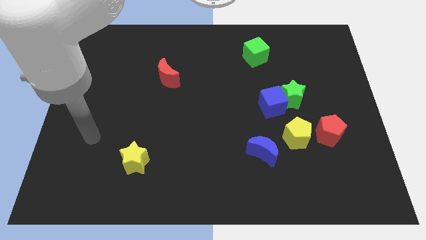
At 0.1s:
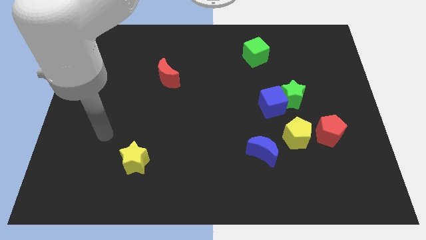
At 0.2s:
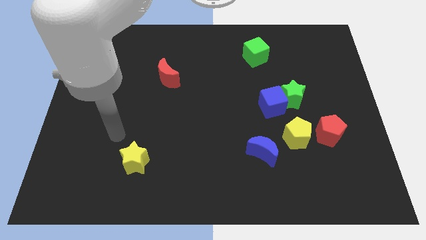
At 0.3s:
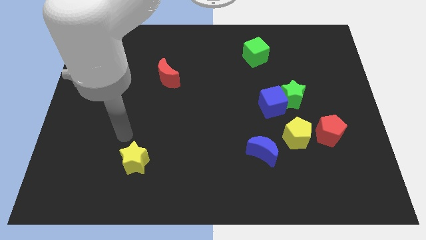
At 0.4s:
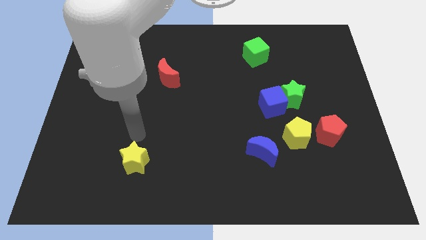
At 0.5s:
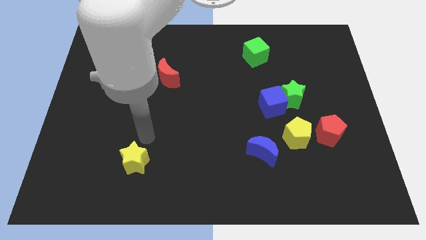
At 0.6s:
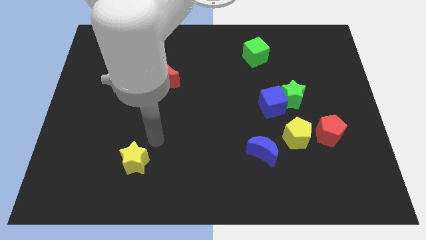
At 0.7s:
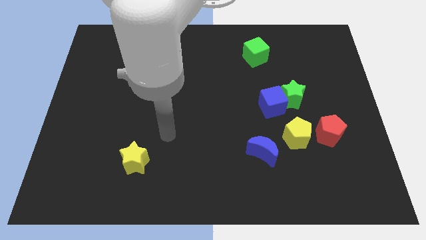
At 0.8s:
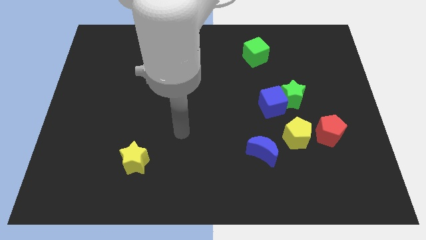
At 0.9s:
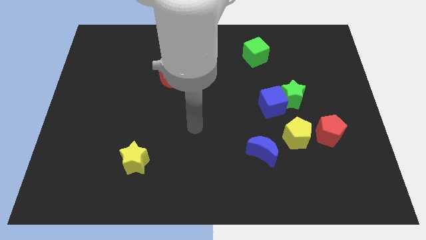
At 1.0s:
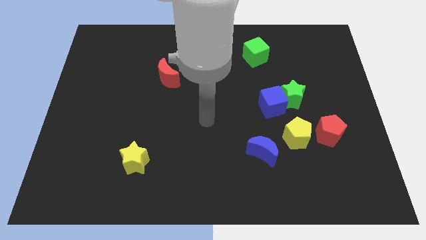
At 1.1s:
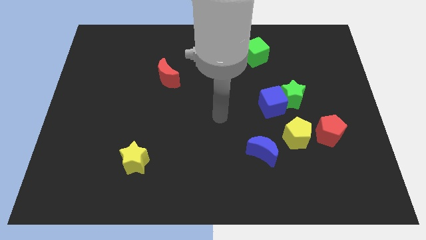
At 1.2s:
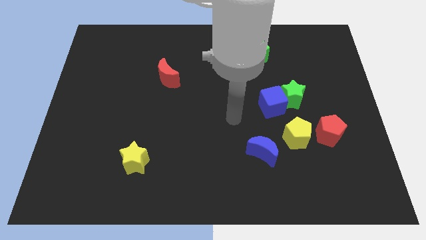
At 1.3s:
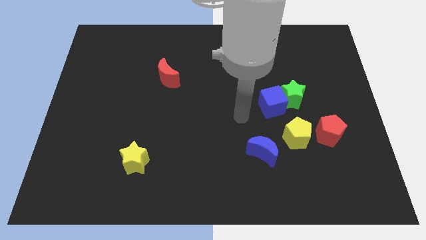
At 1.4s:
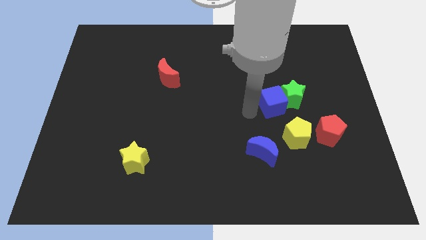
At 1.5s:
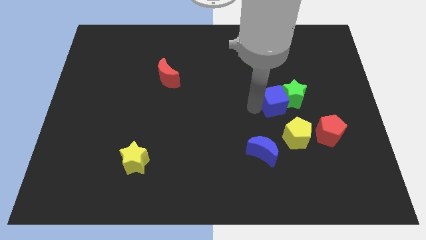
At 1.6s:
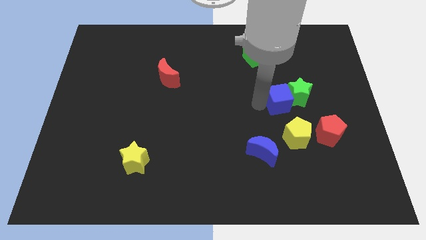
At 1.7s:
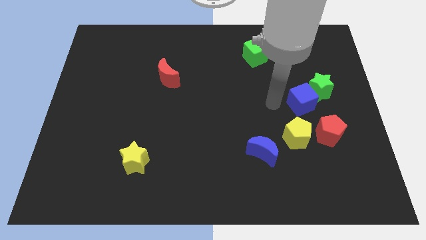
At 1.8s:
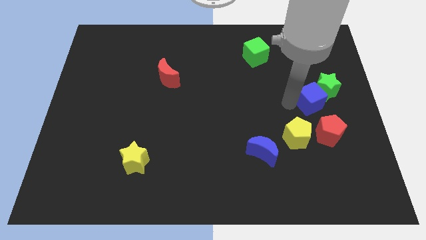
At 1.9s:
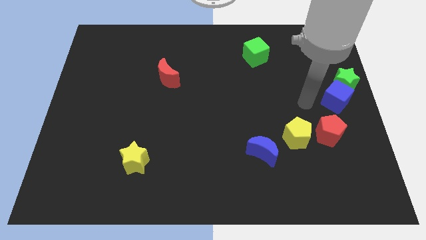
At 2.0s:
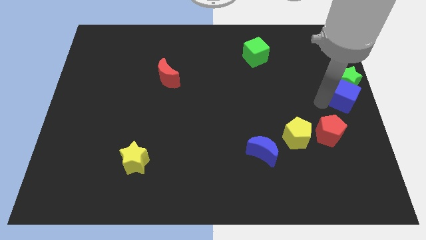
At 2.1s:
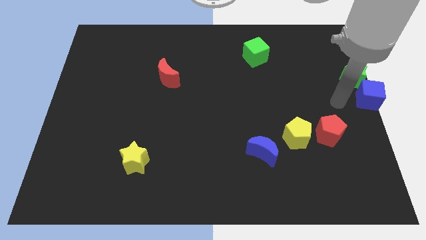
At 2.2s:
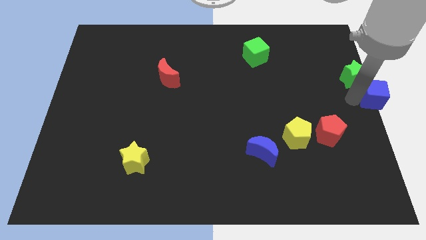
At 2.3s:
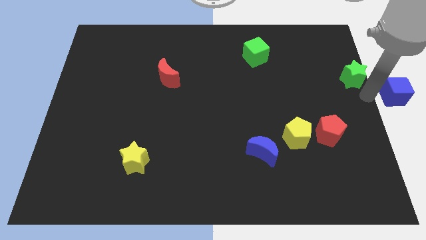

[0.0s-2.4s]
separate the green star from the blue cube

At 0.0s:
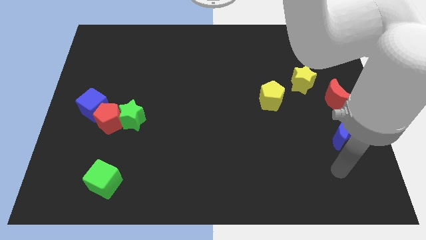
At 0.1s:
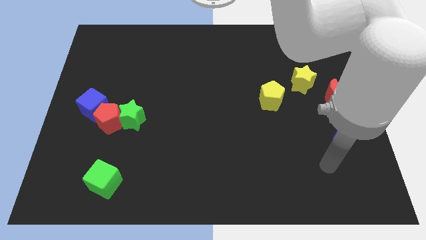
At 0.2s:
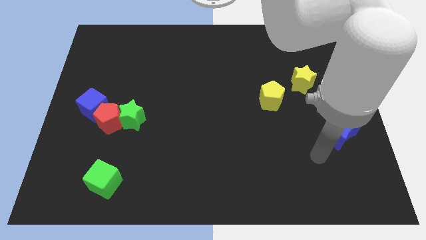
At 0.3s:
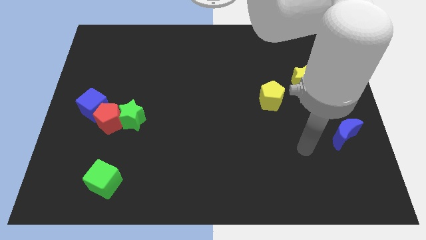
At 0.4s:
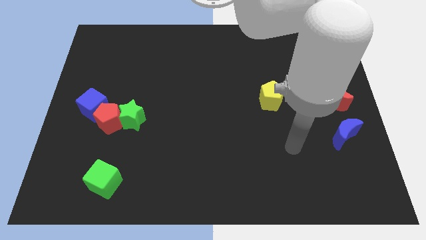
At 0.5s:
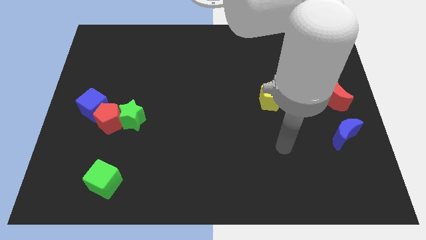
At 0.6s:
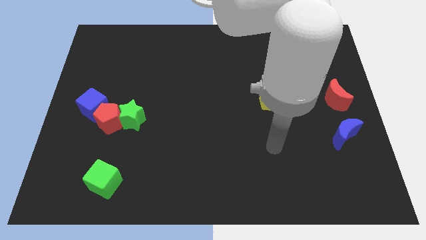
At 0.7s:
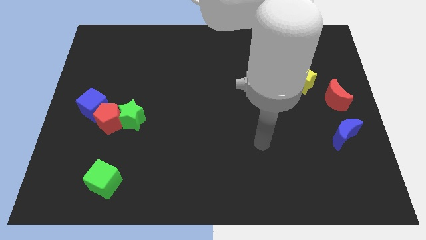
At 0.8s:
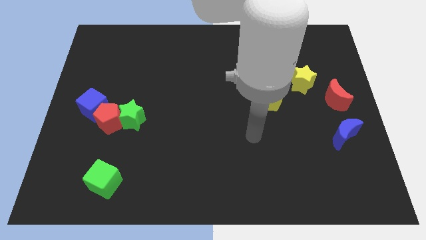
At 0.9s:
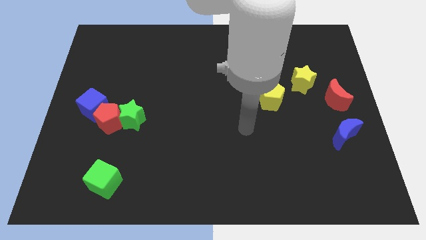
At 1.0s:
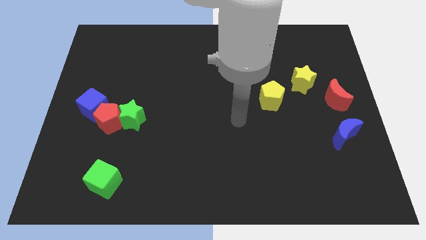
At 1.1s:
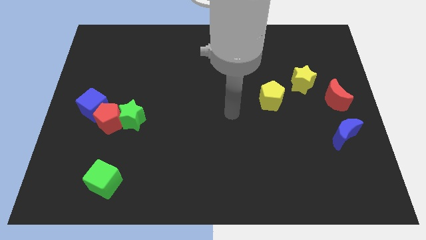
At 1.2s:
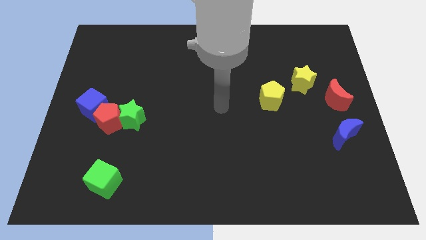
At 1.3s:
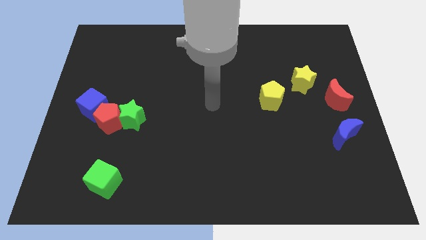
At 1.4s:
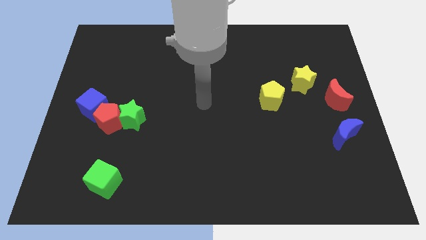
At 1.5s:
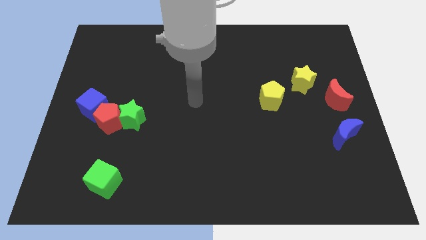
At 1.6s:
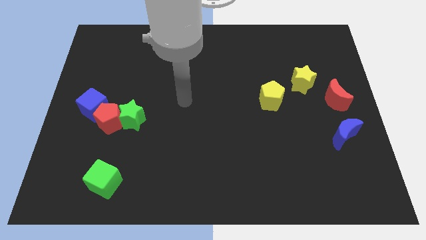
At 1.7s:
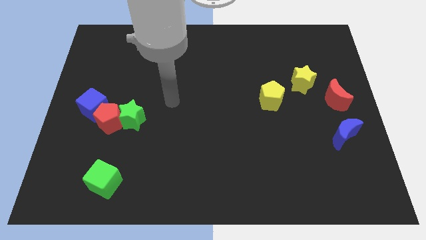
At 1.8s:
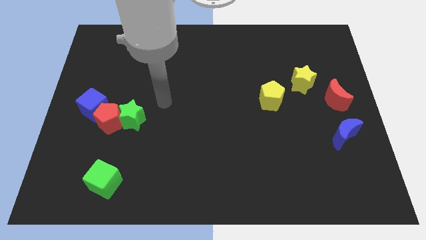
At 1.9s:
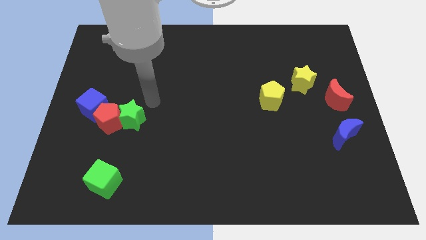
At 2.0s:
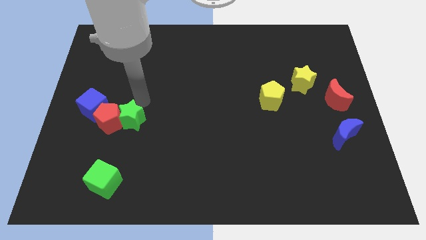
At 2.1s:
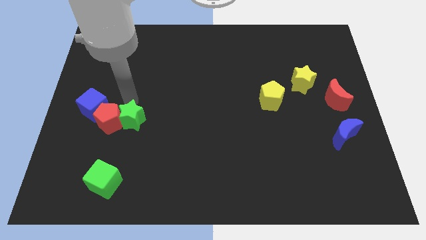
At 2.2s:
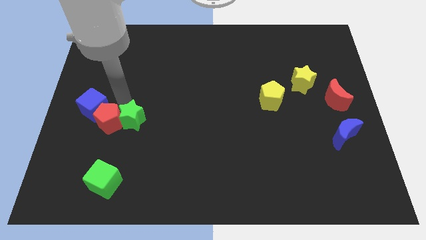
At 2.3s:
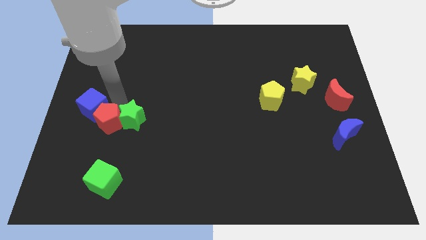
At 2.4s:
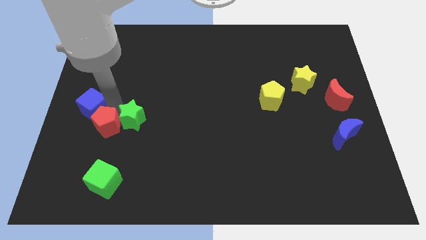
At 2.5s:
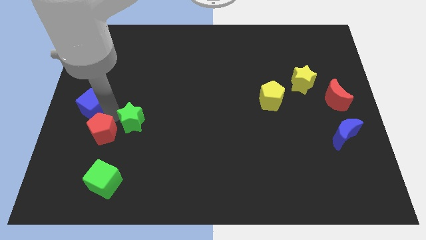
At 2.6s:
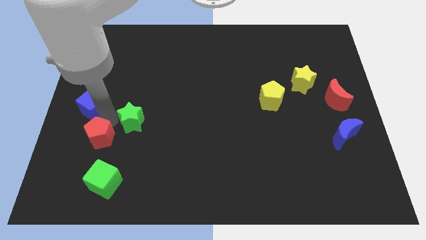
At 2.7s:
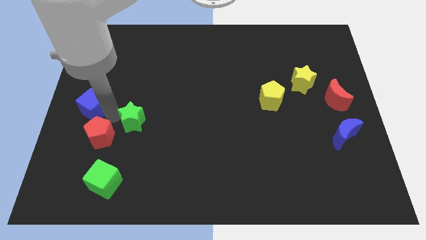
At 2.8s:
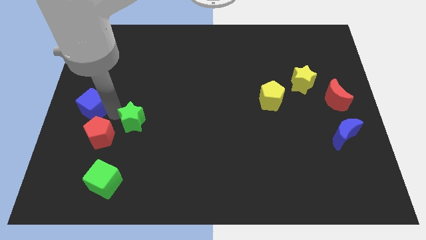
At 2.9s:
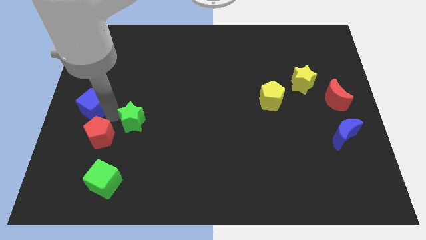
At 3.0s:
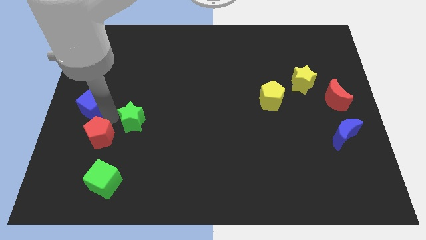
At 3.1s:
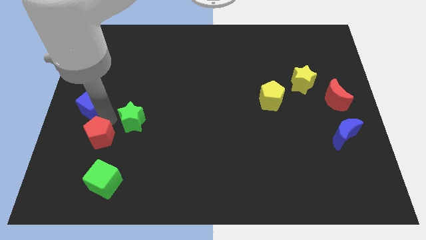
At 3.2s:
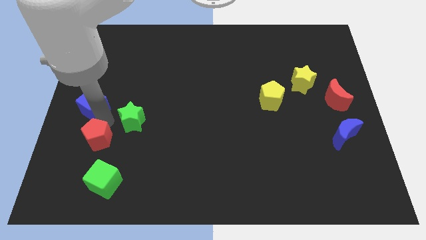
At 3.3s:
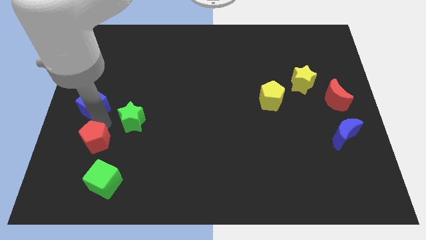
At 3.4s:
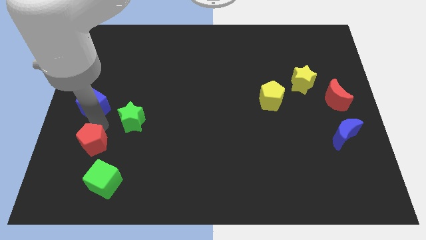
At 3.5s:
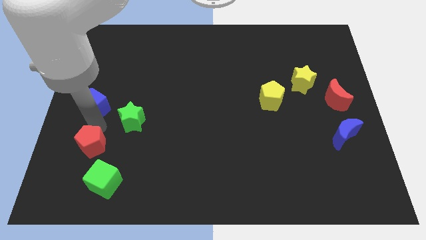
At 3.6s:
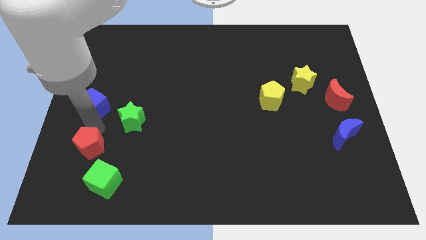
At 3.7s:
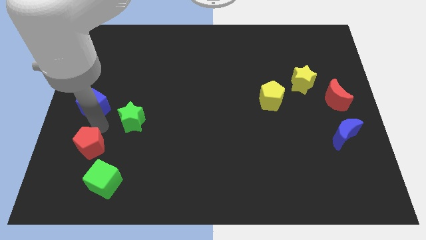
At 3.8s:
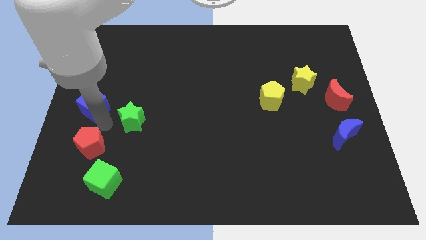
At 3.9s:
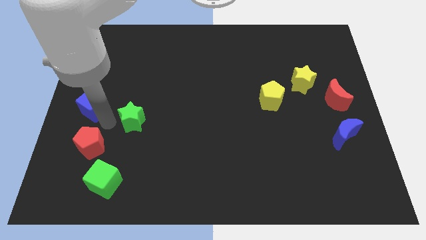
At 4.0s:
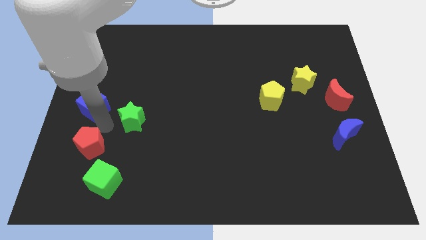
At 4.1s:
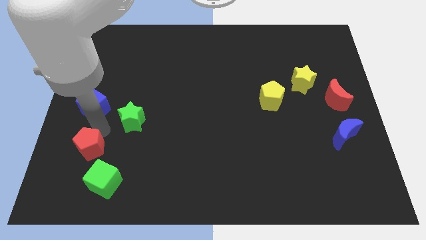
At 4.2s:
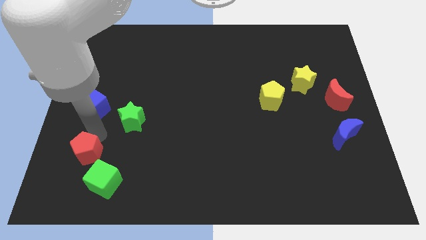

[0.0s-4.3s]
separate the red pentagon from the blue cube and green star

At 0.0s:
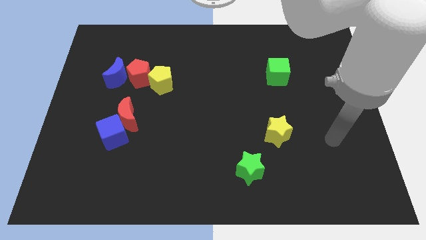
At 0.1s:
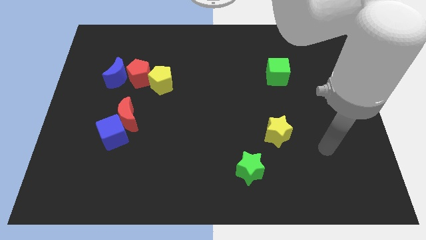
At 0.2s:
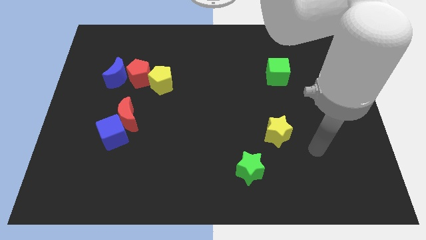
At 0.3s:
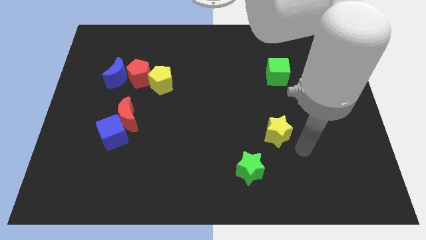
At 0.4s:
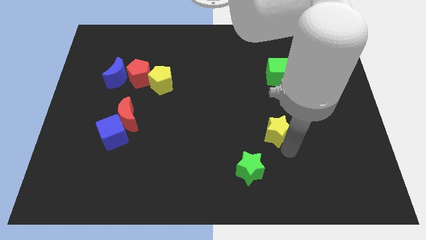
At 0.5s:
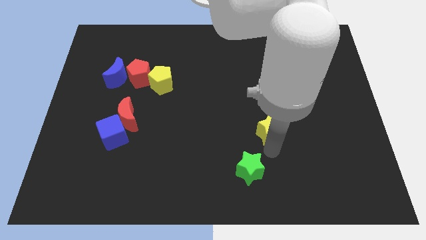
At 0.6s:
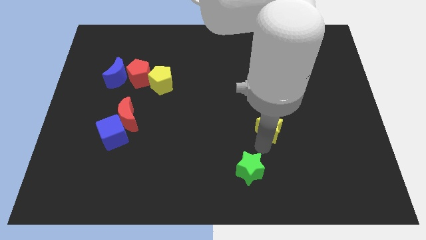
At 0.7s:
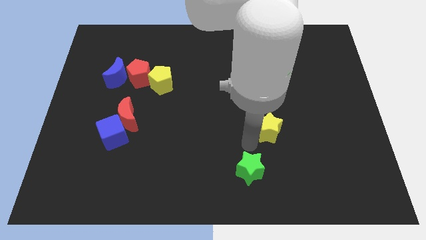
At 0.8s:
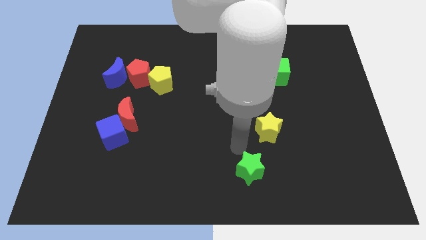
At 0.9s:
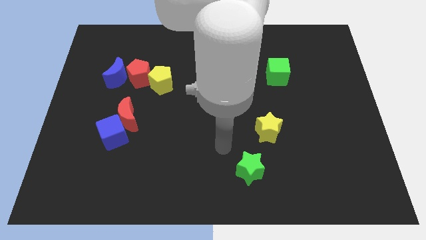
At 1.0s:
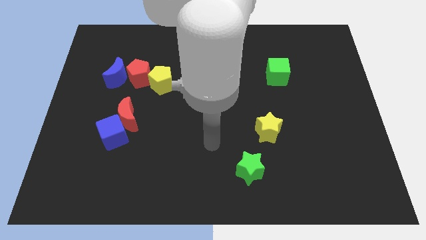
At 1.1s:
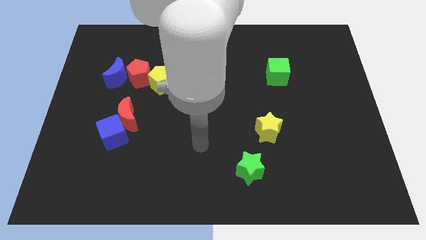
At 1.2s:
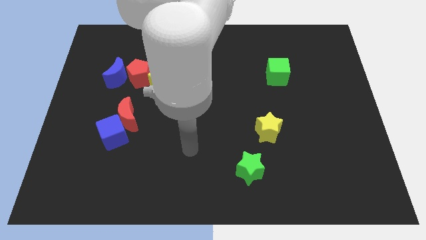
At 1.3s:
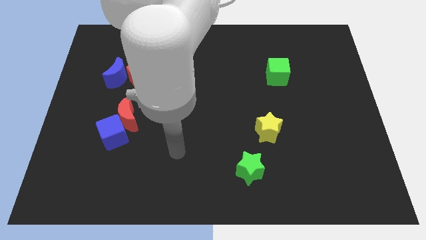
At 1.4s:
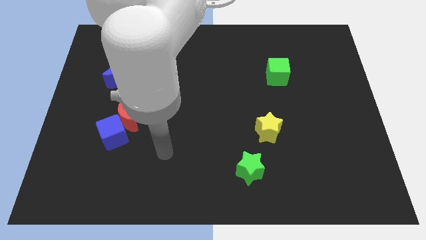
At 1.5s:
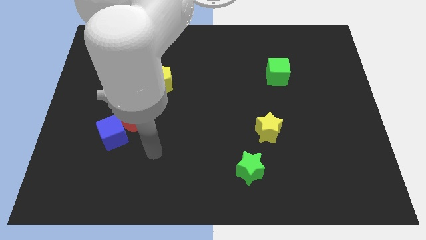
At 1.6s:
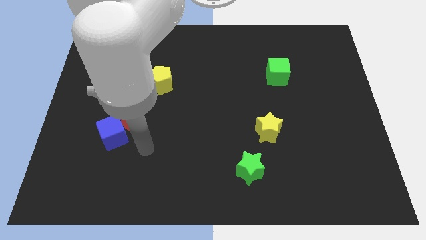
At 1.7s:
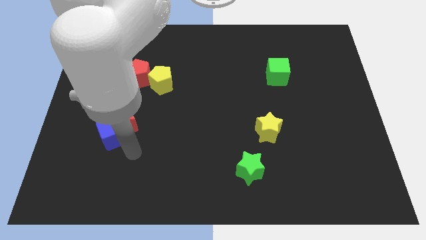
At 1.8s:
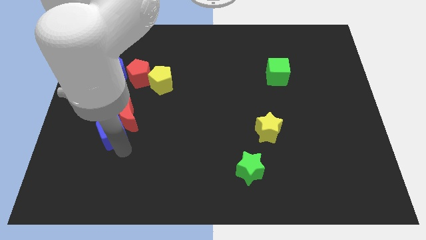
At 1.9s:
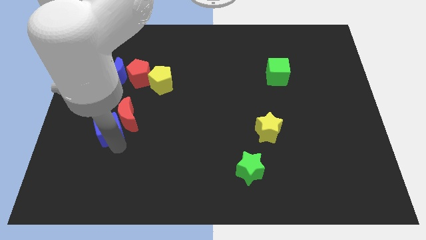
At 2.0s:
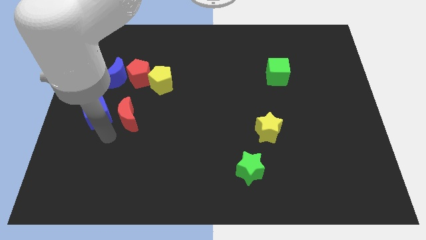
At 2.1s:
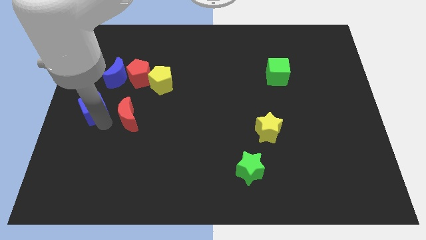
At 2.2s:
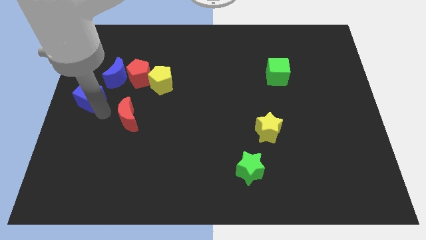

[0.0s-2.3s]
pull the red moon apart from the blue cube

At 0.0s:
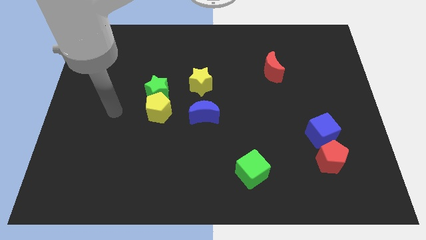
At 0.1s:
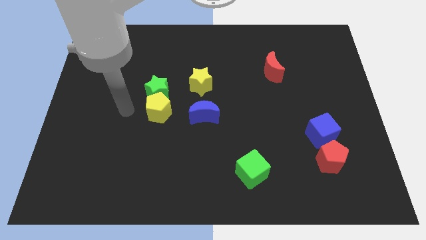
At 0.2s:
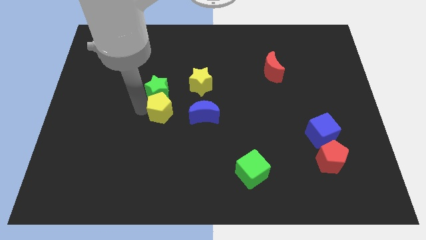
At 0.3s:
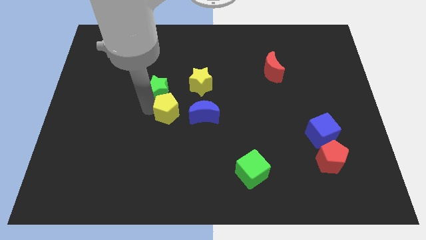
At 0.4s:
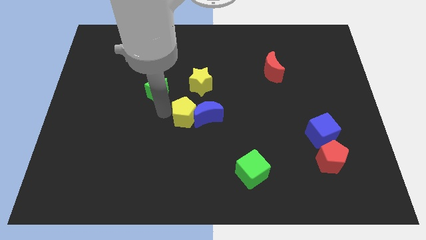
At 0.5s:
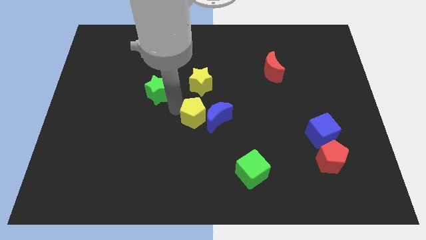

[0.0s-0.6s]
move the green star away from the yellow pentagon
